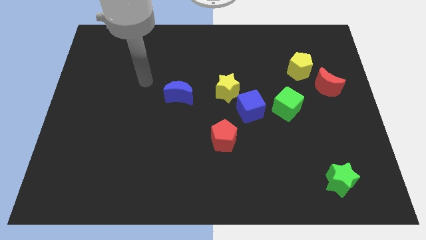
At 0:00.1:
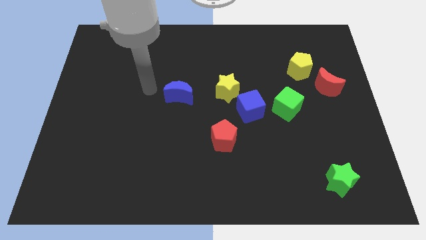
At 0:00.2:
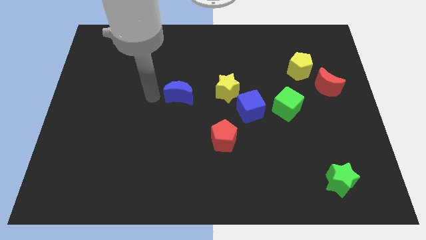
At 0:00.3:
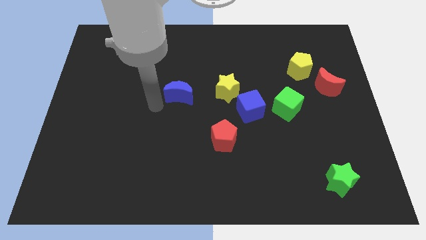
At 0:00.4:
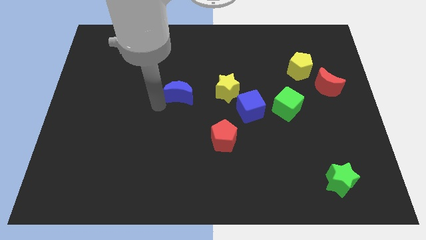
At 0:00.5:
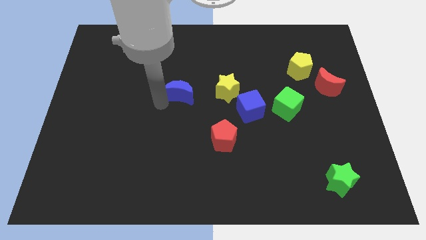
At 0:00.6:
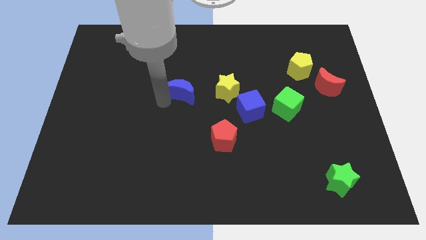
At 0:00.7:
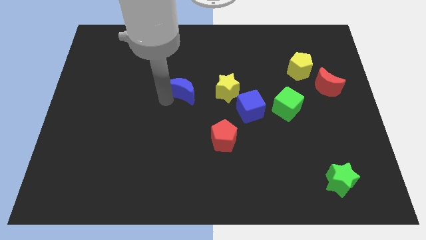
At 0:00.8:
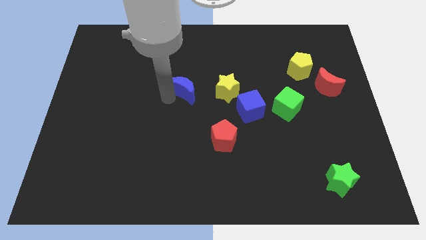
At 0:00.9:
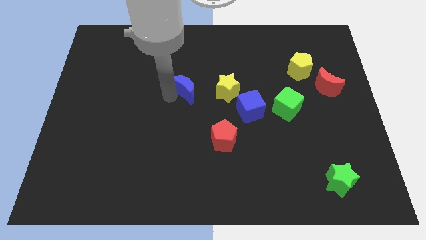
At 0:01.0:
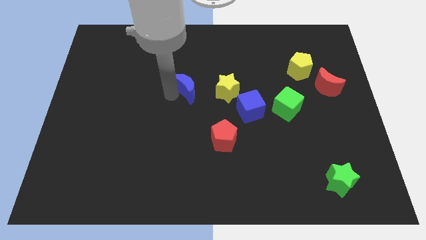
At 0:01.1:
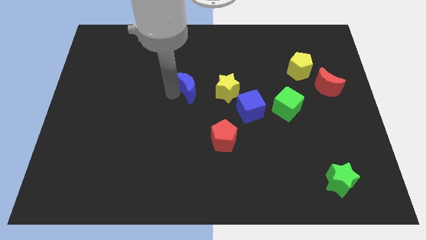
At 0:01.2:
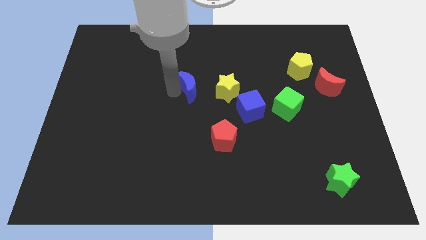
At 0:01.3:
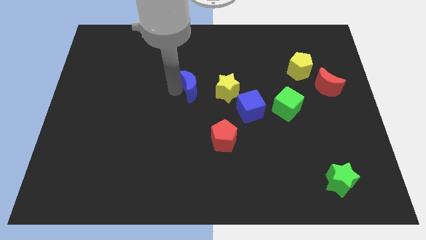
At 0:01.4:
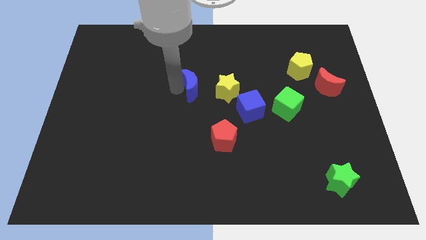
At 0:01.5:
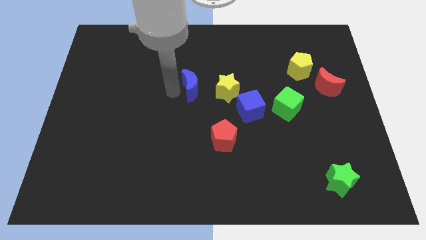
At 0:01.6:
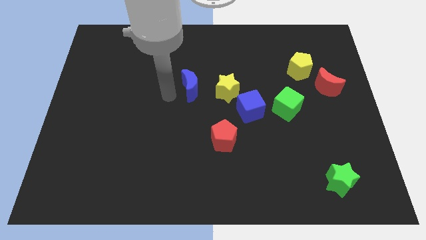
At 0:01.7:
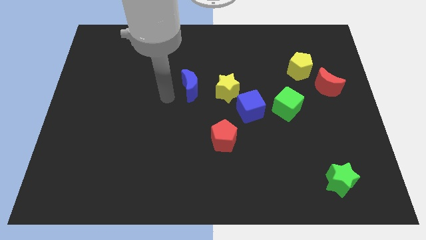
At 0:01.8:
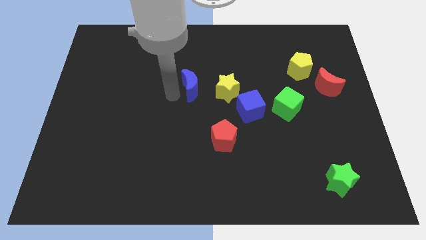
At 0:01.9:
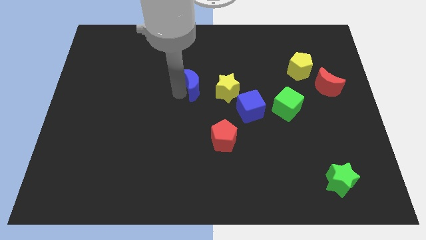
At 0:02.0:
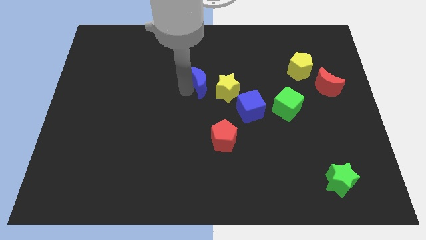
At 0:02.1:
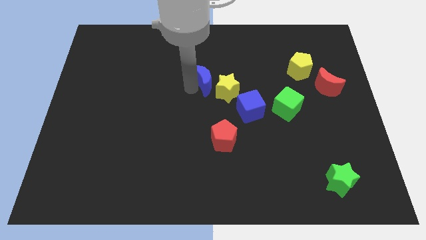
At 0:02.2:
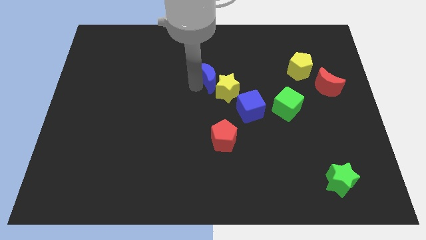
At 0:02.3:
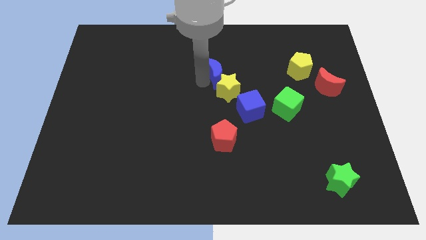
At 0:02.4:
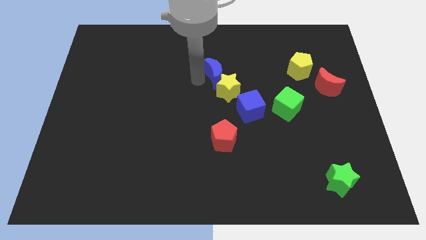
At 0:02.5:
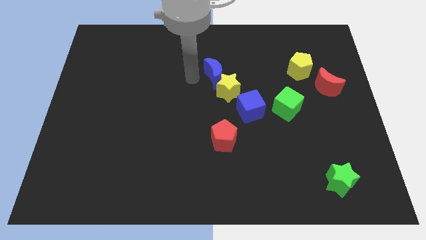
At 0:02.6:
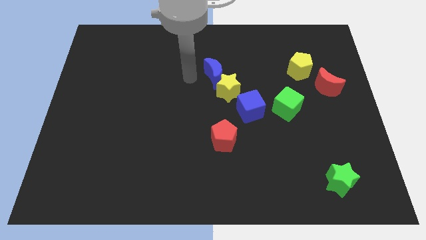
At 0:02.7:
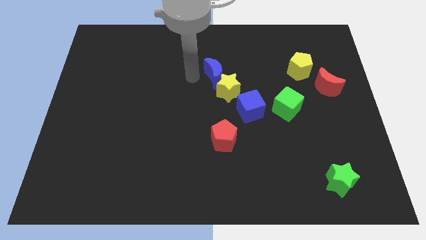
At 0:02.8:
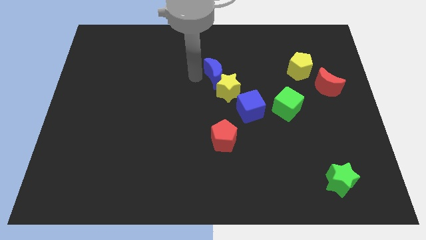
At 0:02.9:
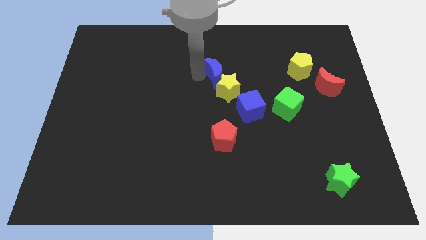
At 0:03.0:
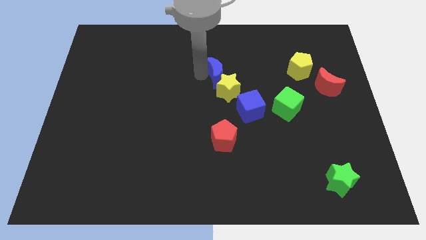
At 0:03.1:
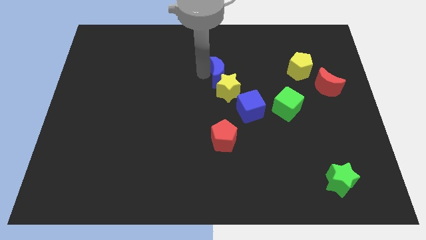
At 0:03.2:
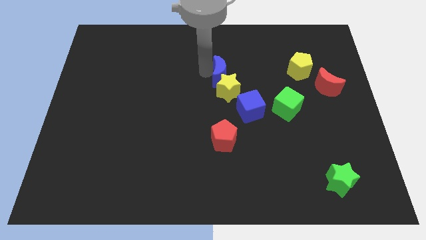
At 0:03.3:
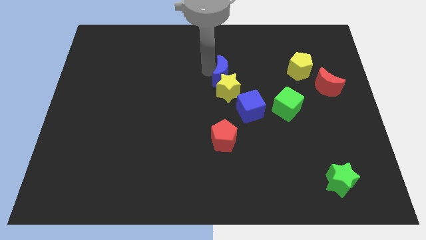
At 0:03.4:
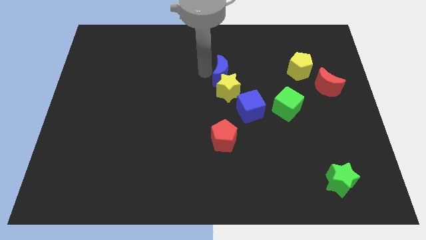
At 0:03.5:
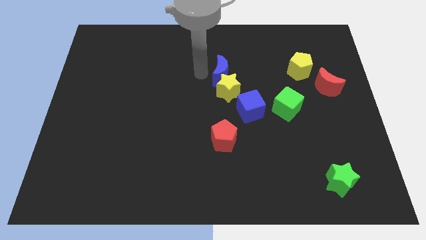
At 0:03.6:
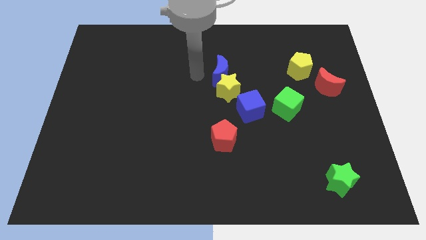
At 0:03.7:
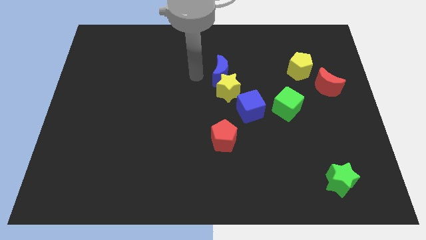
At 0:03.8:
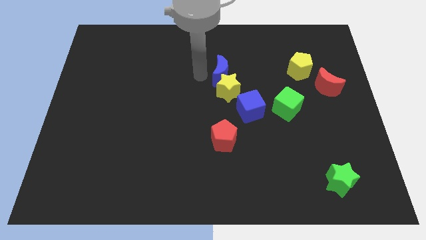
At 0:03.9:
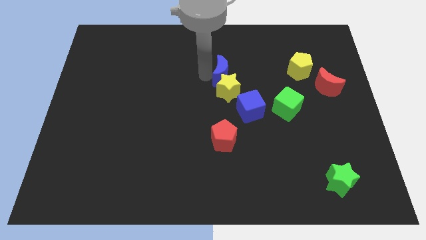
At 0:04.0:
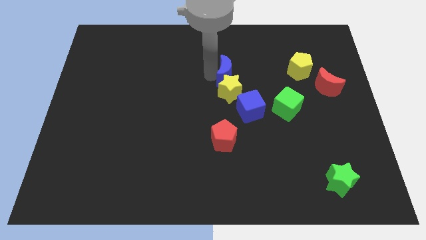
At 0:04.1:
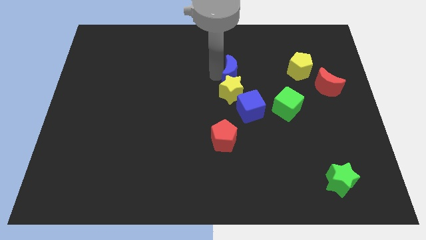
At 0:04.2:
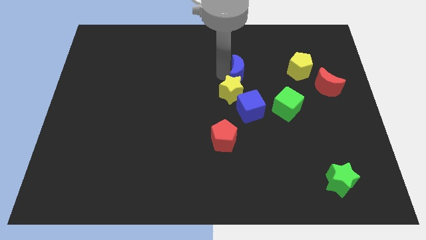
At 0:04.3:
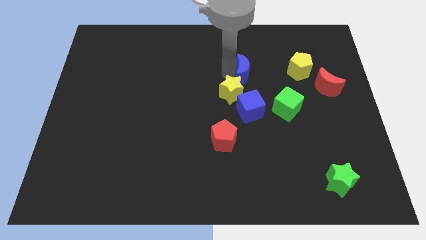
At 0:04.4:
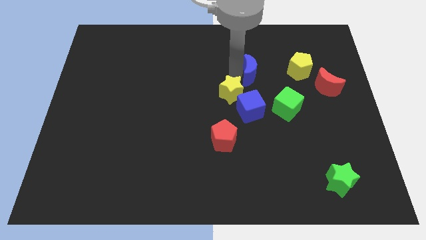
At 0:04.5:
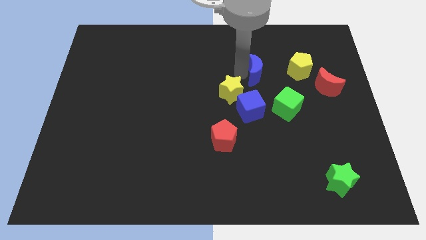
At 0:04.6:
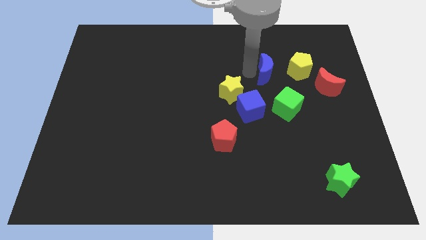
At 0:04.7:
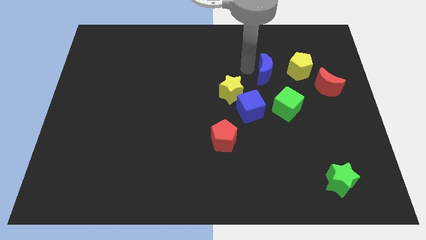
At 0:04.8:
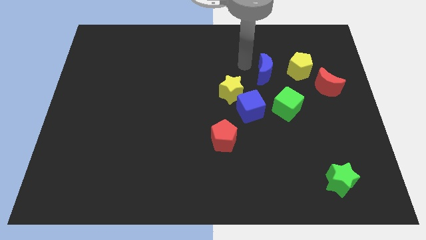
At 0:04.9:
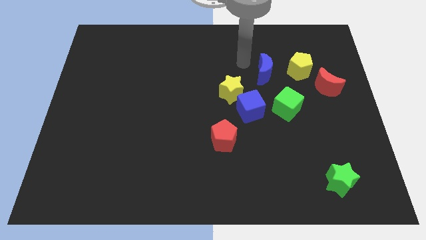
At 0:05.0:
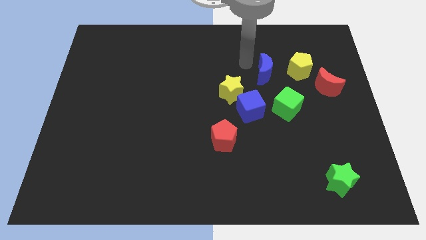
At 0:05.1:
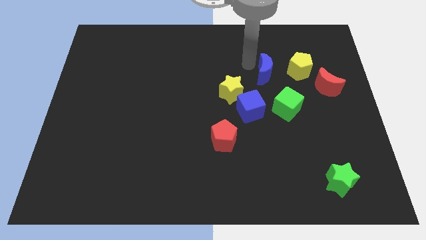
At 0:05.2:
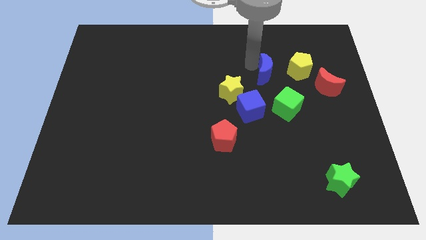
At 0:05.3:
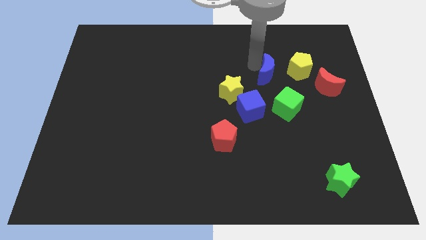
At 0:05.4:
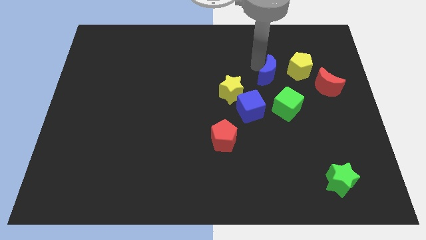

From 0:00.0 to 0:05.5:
push the blue moon to the right

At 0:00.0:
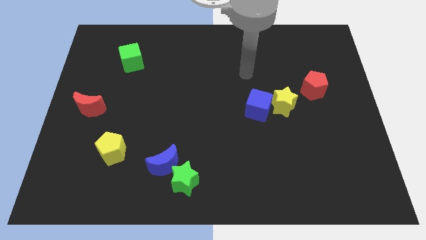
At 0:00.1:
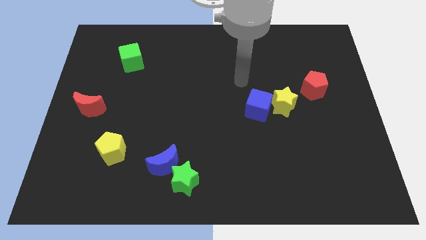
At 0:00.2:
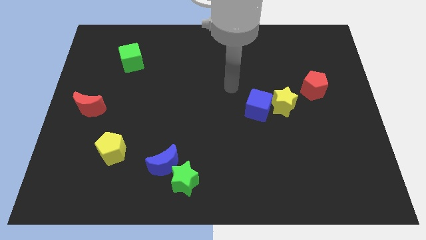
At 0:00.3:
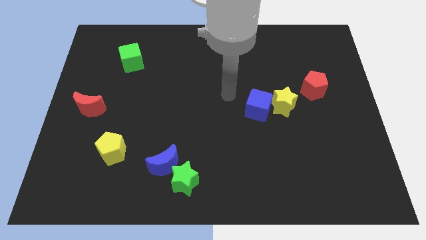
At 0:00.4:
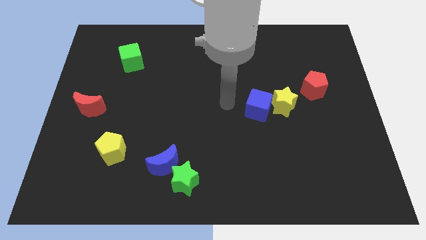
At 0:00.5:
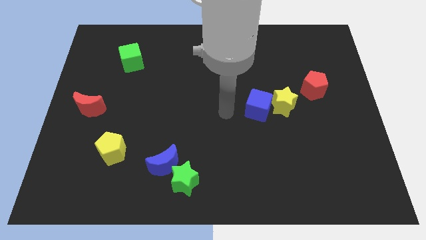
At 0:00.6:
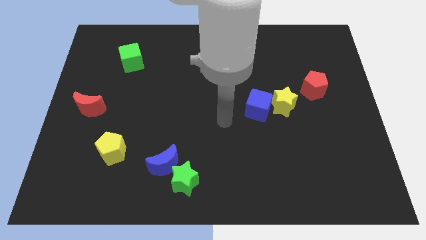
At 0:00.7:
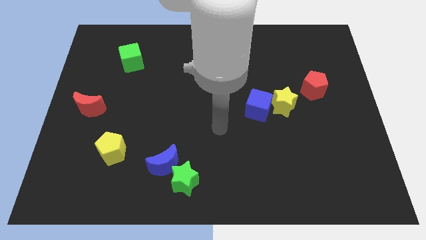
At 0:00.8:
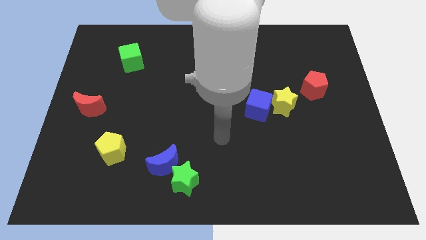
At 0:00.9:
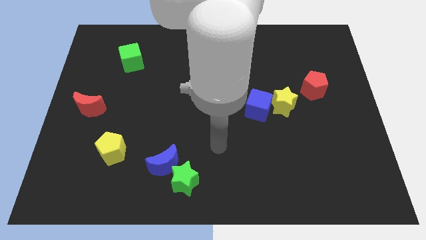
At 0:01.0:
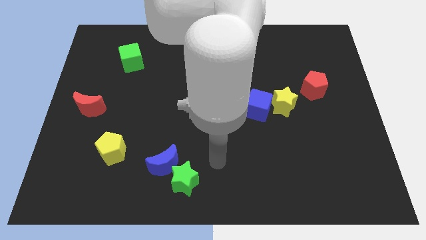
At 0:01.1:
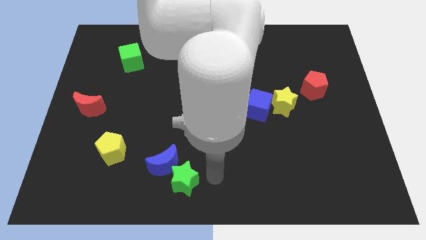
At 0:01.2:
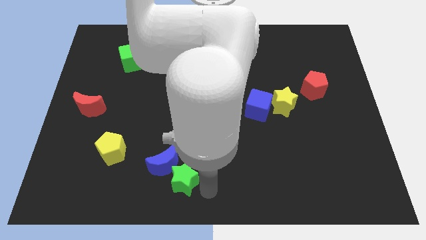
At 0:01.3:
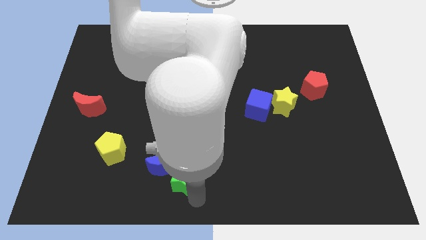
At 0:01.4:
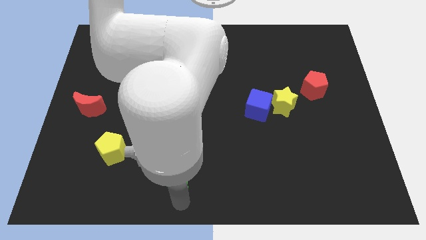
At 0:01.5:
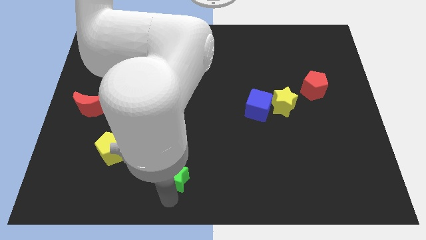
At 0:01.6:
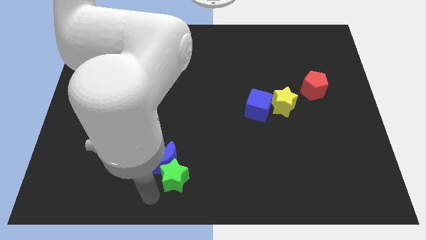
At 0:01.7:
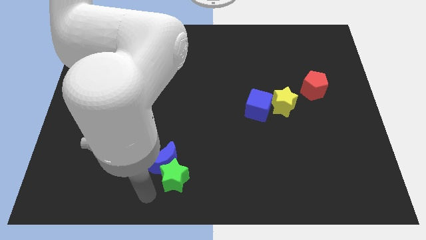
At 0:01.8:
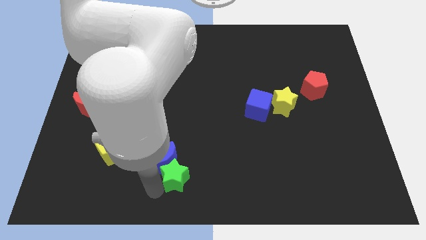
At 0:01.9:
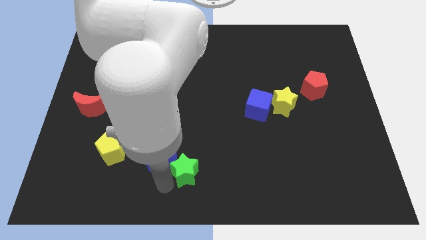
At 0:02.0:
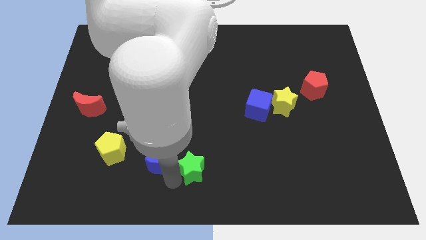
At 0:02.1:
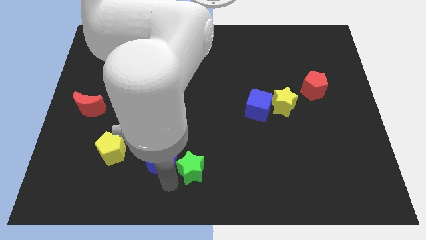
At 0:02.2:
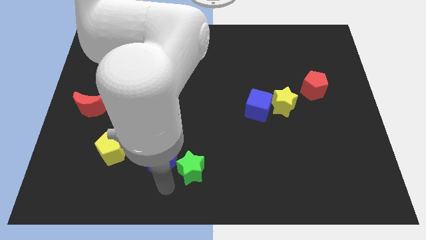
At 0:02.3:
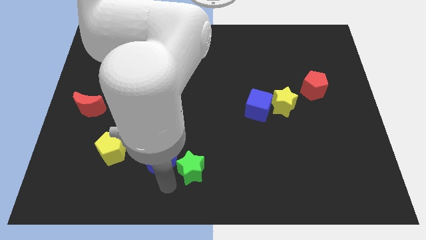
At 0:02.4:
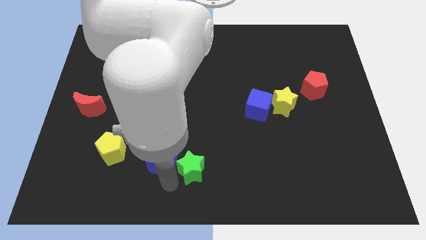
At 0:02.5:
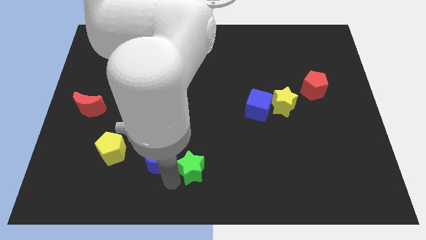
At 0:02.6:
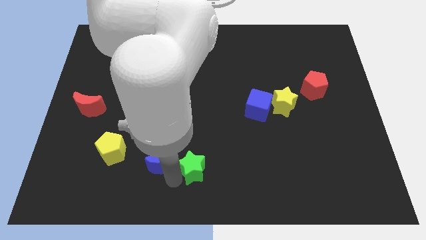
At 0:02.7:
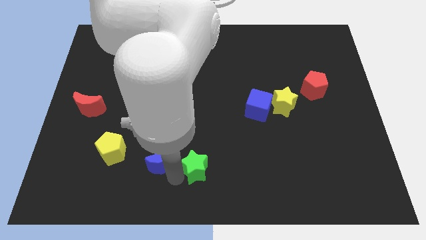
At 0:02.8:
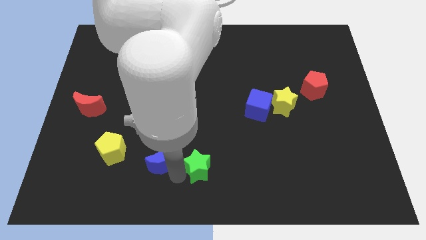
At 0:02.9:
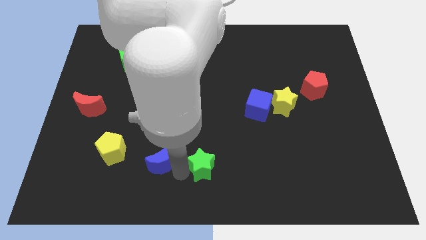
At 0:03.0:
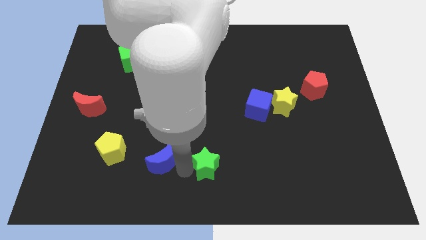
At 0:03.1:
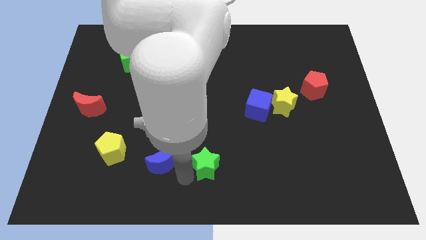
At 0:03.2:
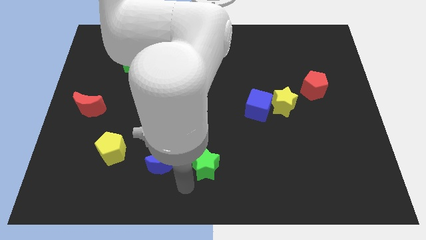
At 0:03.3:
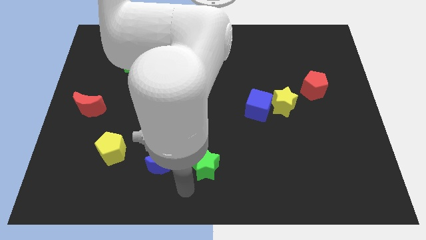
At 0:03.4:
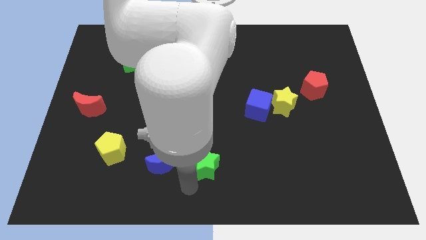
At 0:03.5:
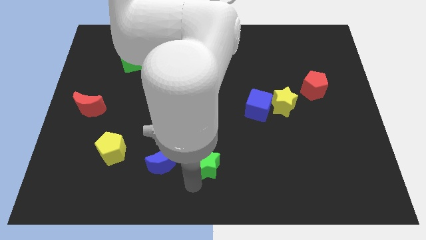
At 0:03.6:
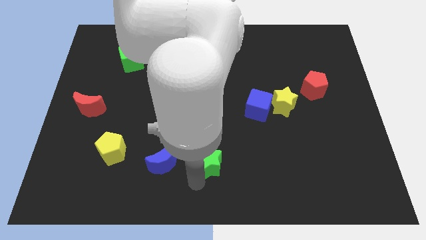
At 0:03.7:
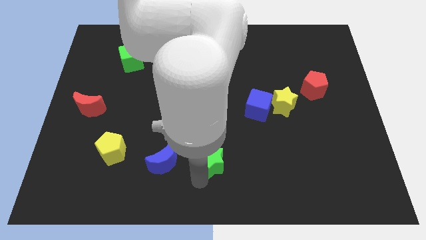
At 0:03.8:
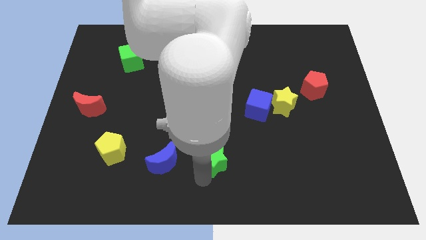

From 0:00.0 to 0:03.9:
push the green star upwards and then to the right a bit
